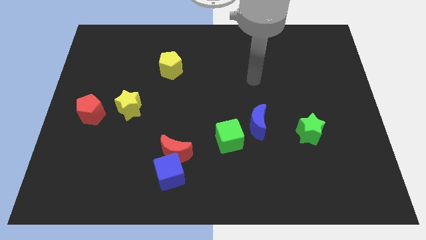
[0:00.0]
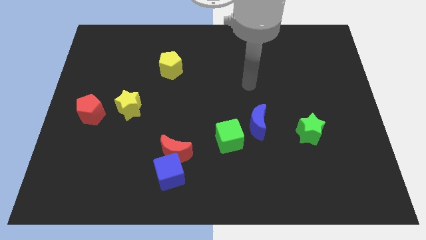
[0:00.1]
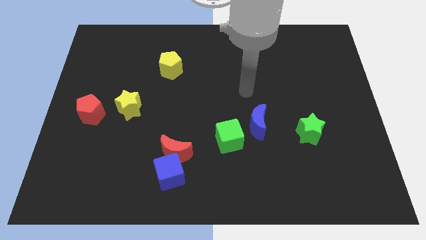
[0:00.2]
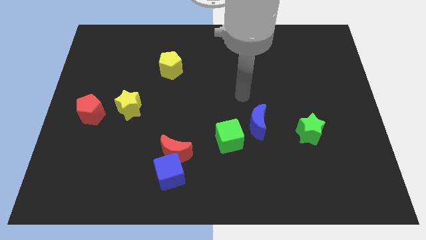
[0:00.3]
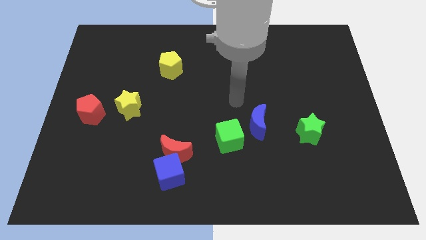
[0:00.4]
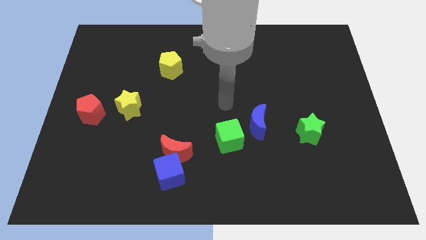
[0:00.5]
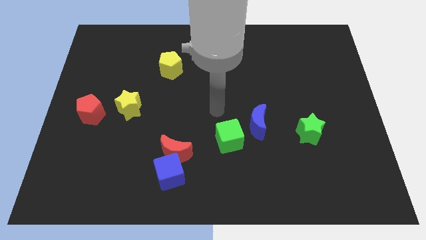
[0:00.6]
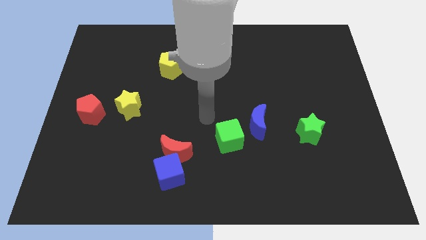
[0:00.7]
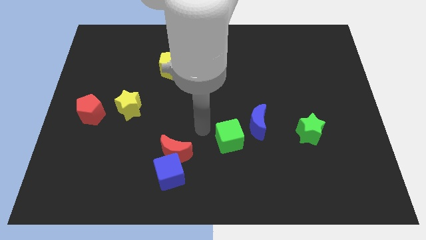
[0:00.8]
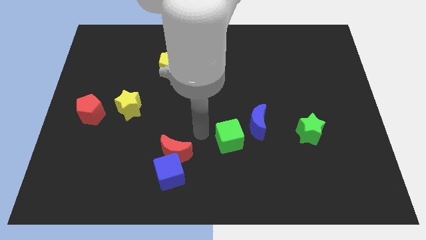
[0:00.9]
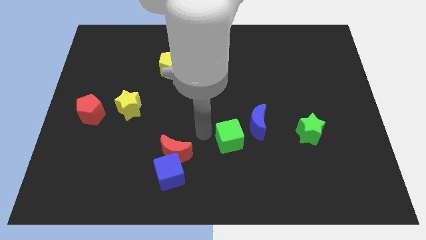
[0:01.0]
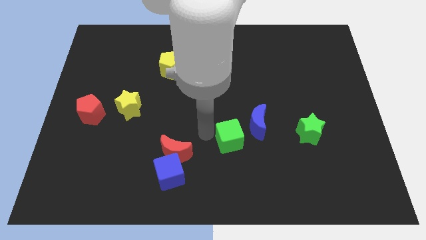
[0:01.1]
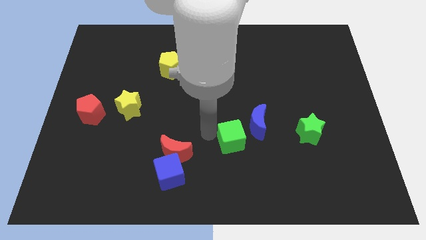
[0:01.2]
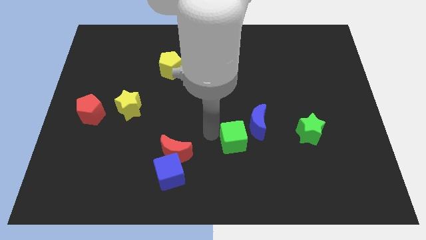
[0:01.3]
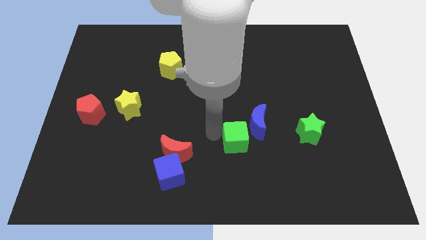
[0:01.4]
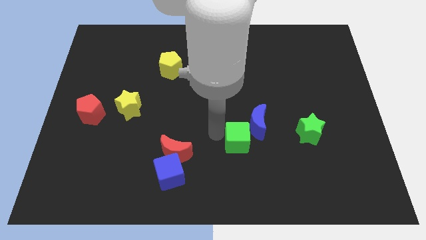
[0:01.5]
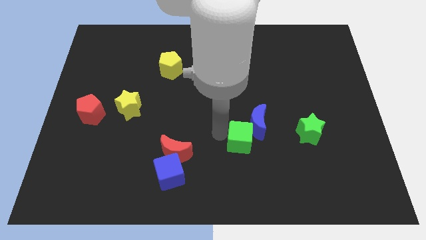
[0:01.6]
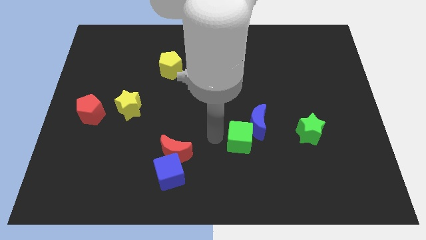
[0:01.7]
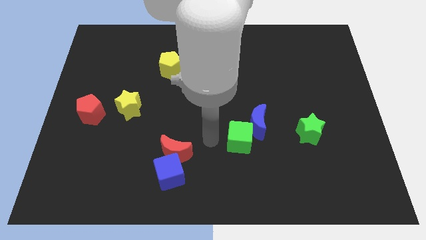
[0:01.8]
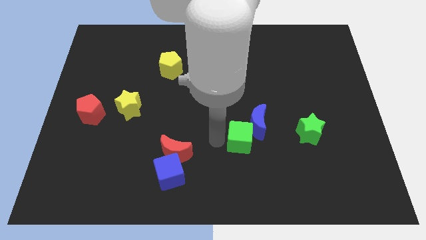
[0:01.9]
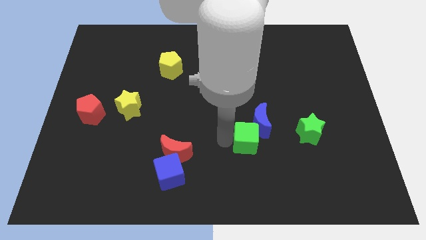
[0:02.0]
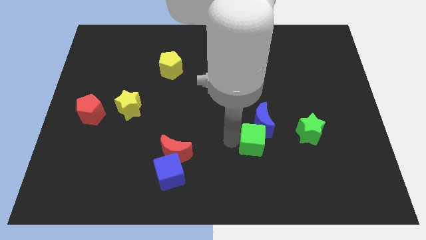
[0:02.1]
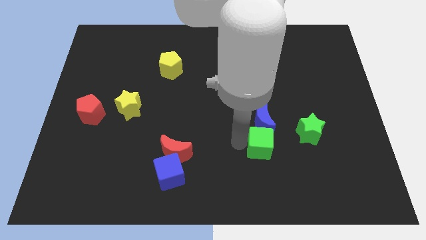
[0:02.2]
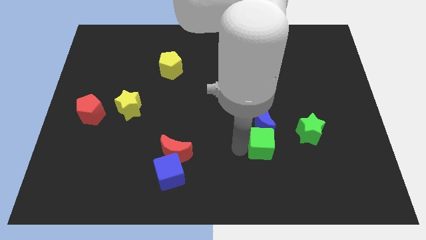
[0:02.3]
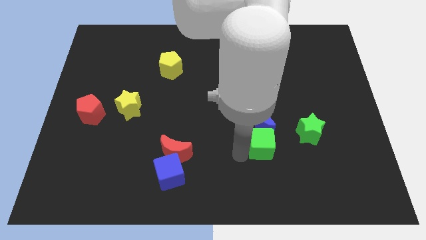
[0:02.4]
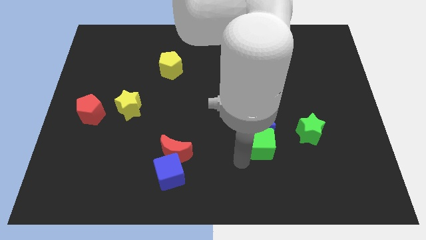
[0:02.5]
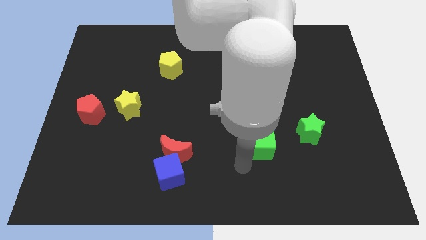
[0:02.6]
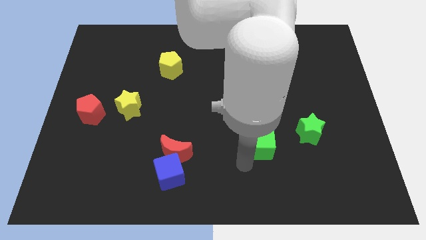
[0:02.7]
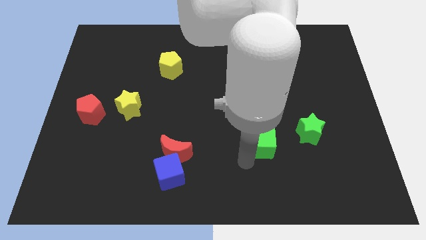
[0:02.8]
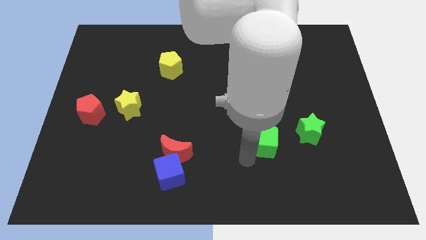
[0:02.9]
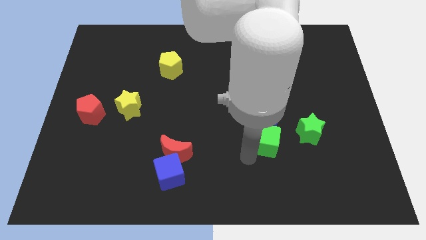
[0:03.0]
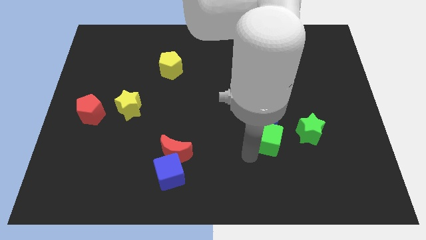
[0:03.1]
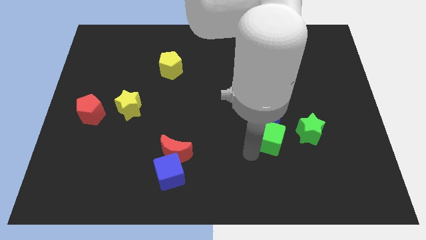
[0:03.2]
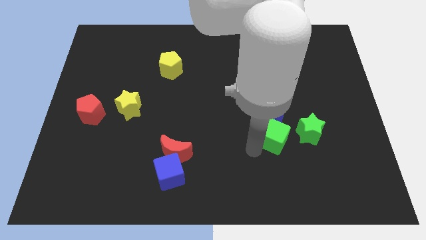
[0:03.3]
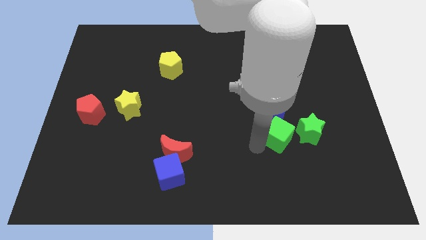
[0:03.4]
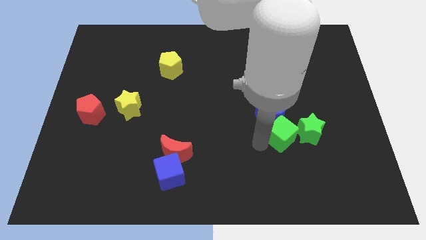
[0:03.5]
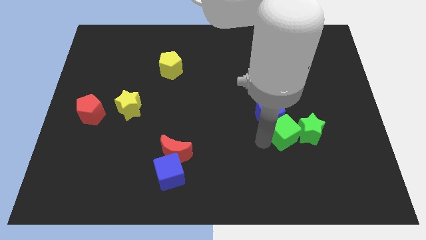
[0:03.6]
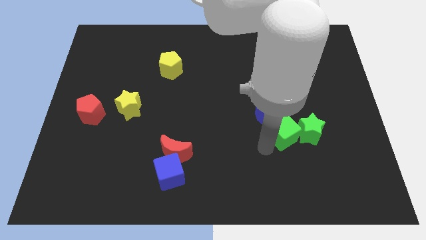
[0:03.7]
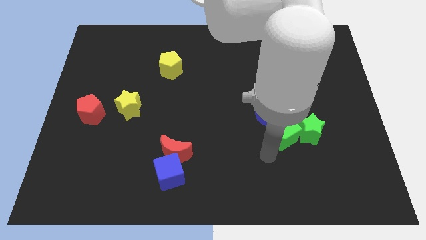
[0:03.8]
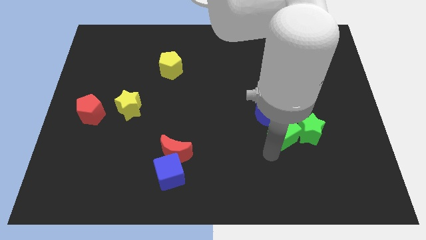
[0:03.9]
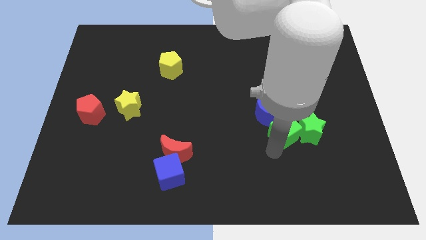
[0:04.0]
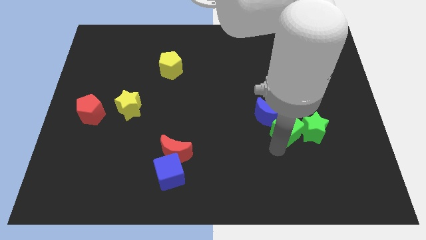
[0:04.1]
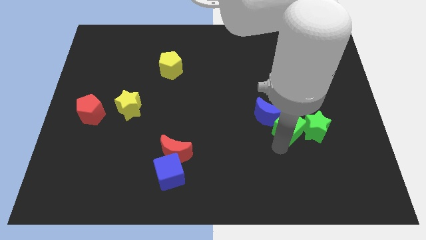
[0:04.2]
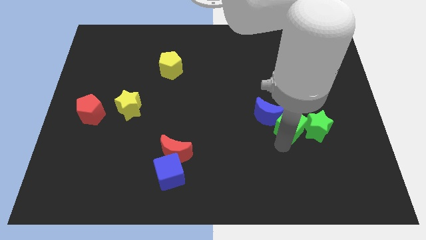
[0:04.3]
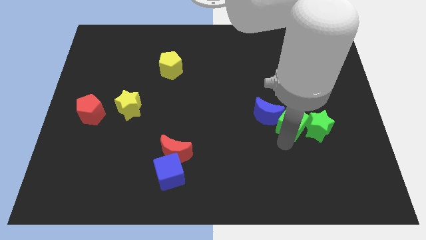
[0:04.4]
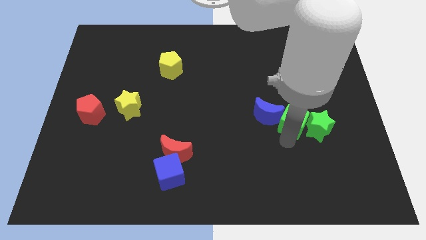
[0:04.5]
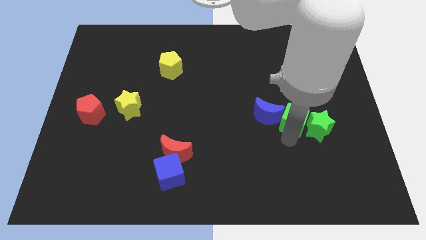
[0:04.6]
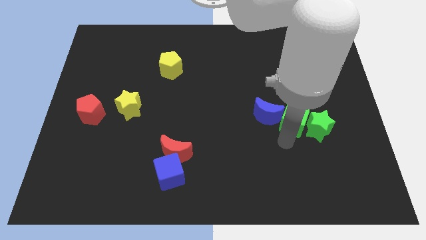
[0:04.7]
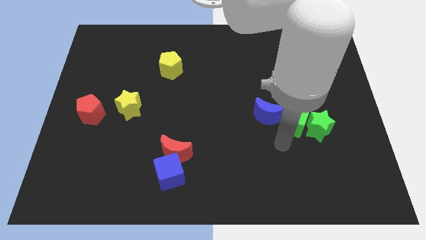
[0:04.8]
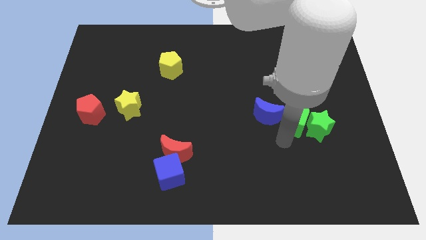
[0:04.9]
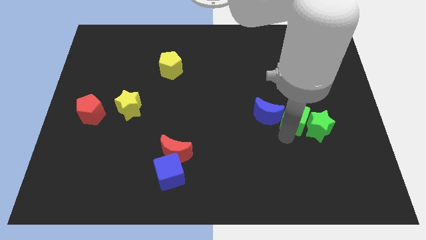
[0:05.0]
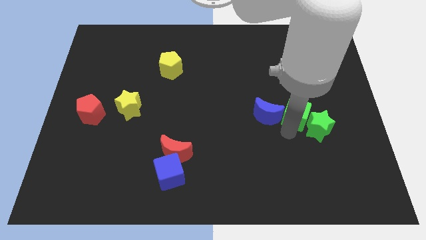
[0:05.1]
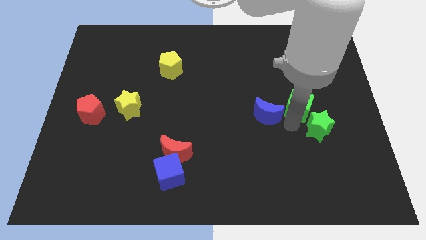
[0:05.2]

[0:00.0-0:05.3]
slide the green cube to the top side of the green star

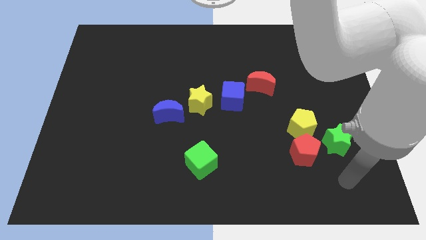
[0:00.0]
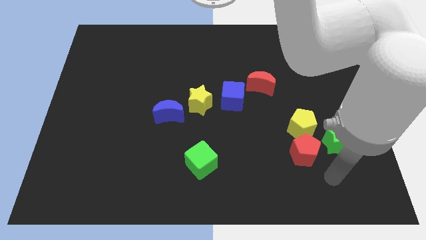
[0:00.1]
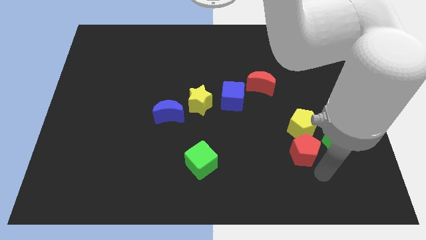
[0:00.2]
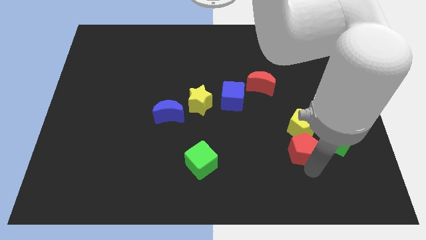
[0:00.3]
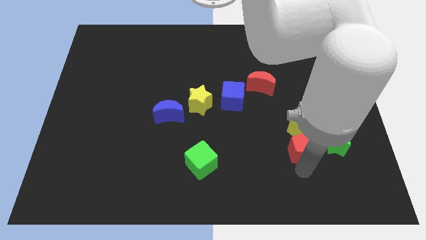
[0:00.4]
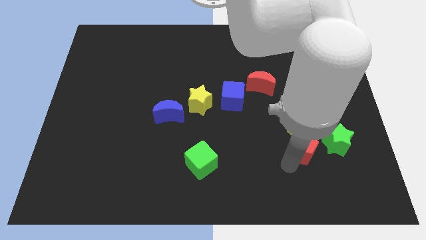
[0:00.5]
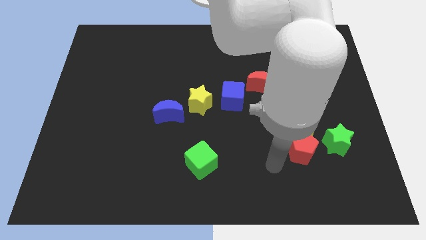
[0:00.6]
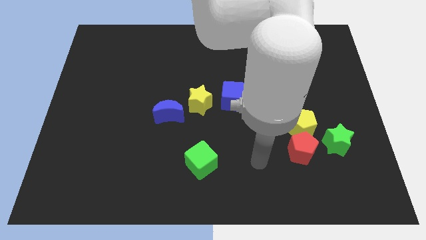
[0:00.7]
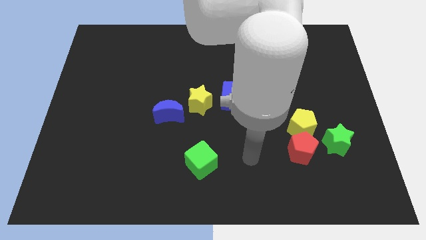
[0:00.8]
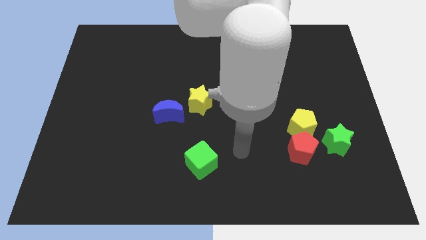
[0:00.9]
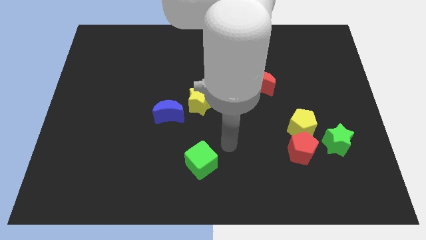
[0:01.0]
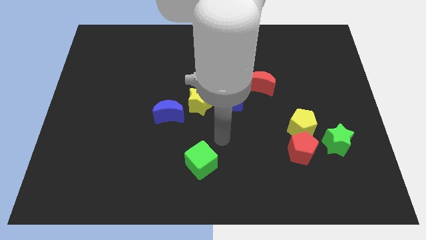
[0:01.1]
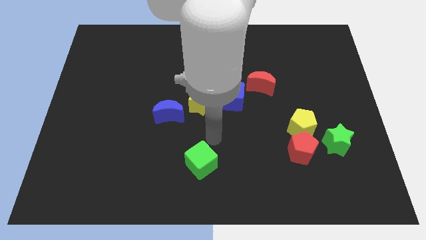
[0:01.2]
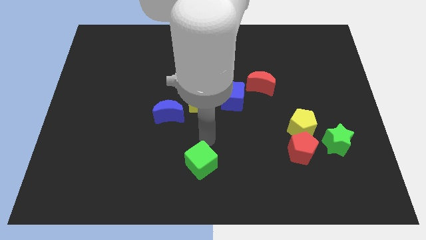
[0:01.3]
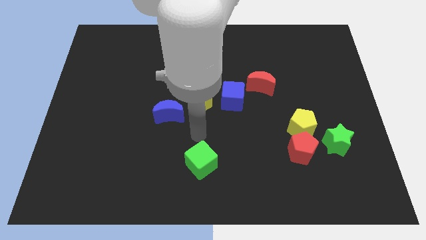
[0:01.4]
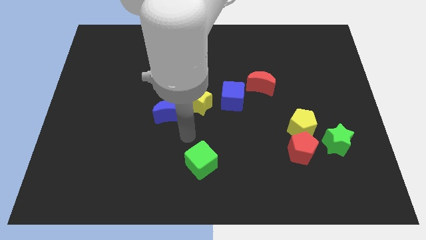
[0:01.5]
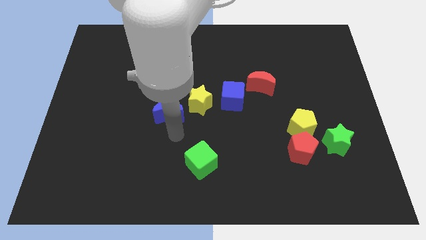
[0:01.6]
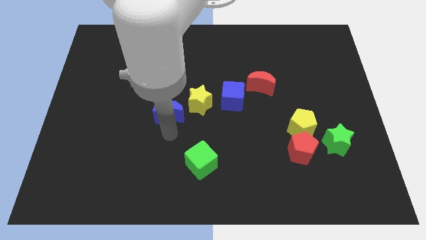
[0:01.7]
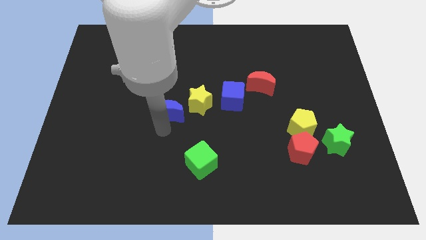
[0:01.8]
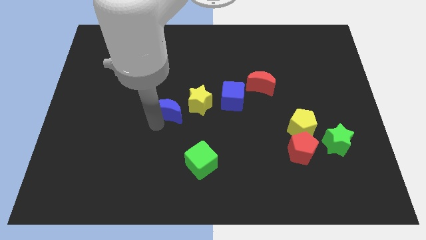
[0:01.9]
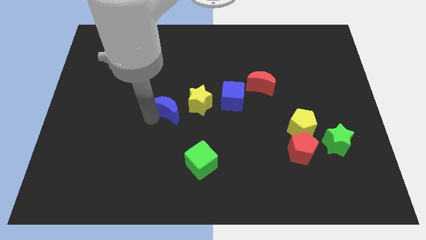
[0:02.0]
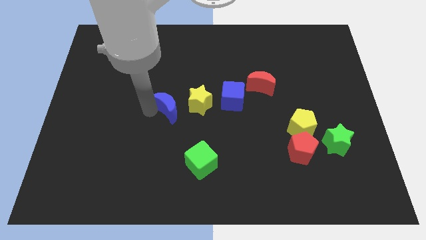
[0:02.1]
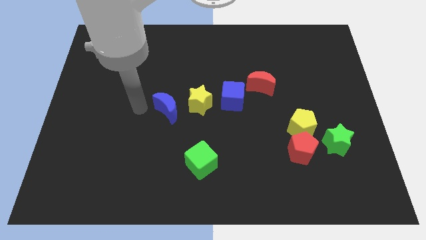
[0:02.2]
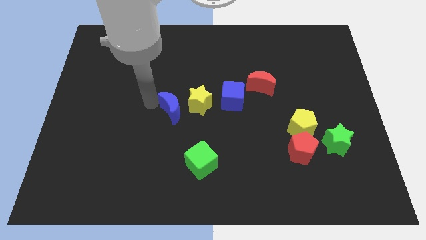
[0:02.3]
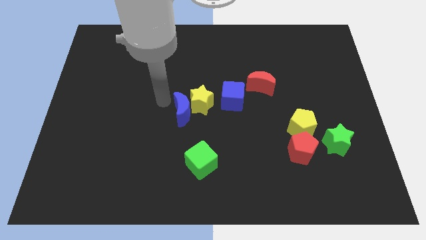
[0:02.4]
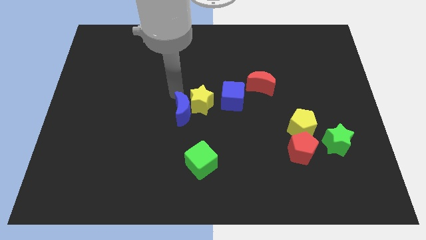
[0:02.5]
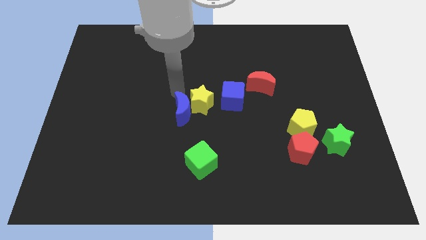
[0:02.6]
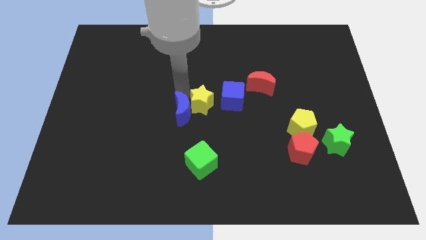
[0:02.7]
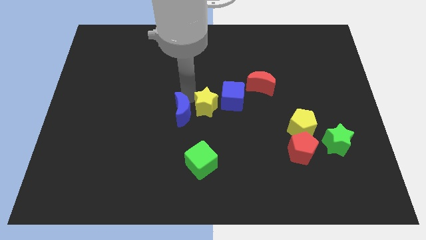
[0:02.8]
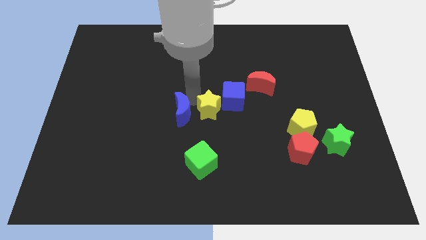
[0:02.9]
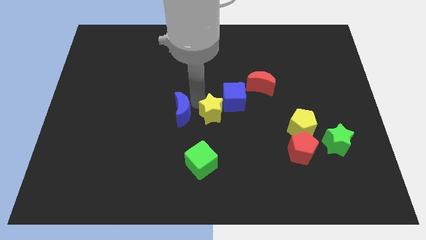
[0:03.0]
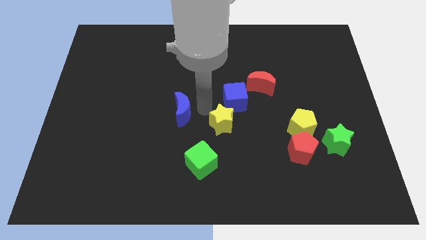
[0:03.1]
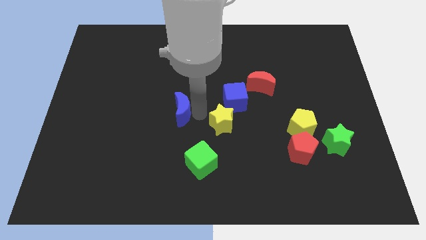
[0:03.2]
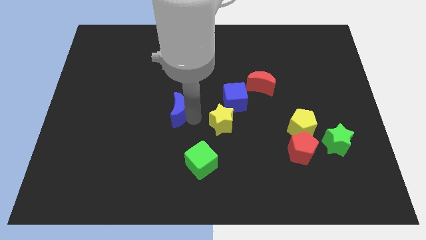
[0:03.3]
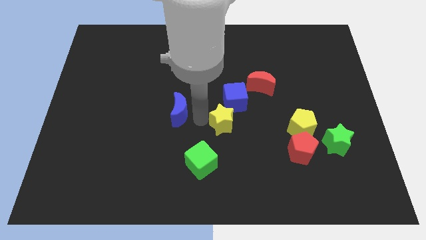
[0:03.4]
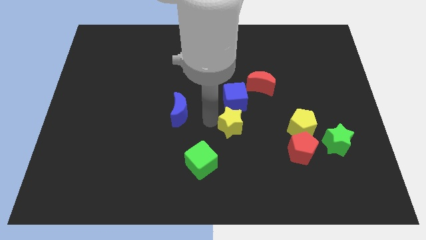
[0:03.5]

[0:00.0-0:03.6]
slide the yellow star to the left of the yellow pentagon
